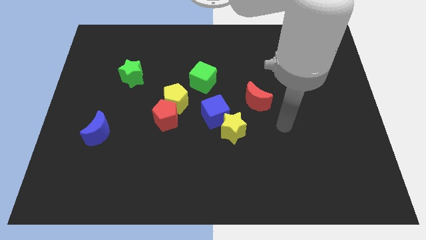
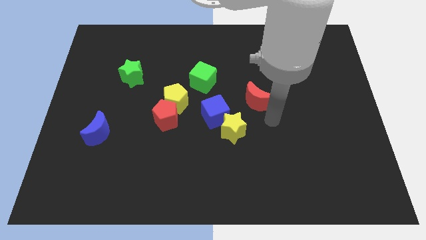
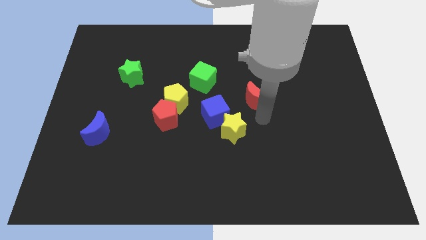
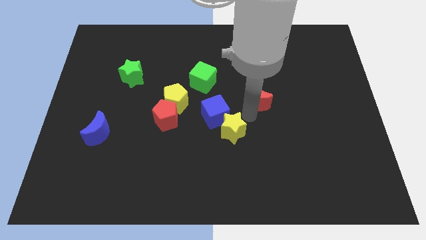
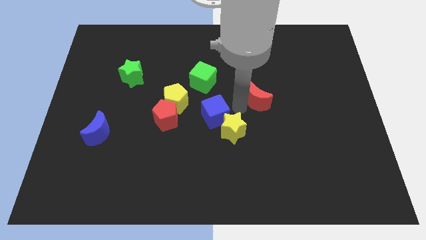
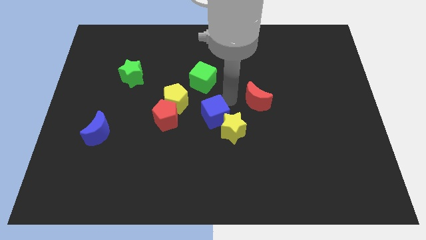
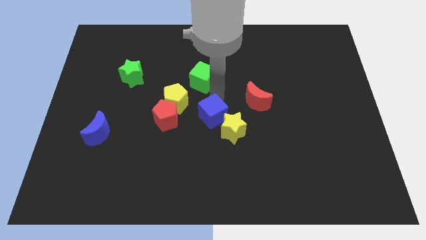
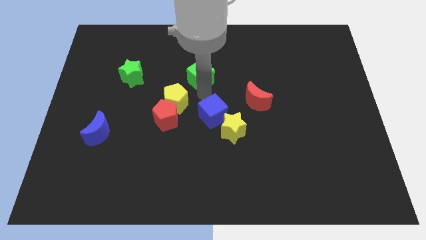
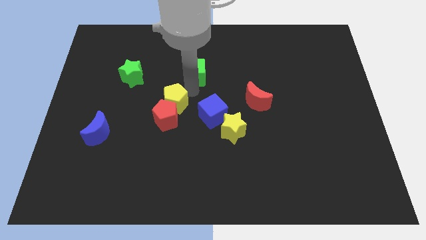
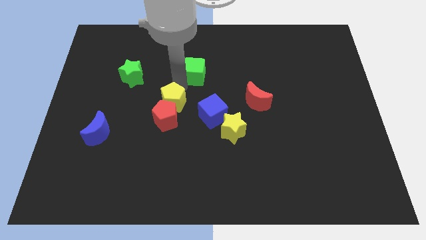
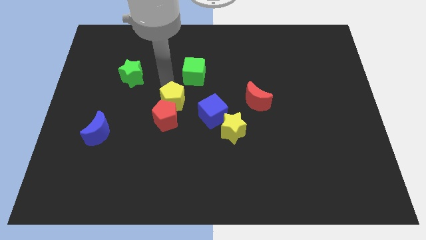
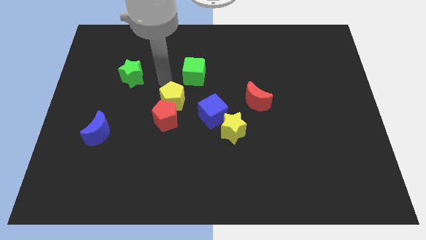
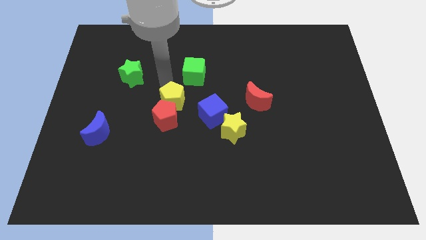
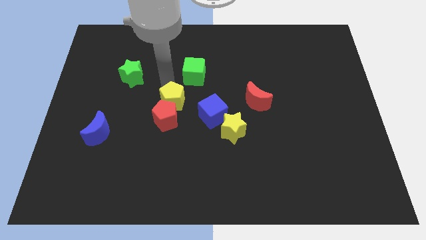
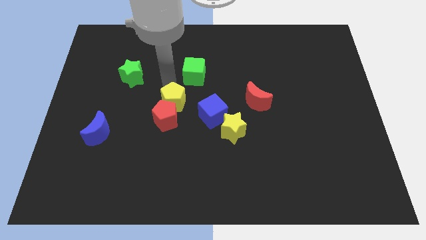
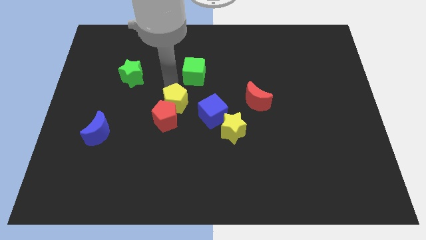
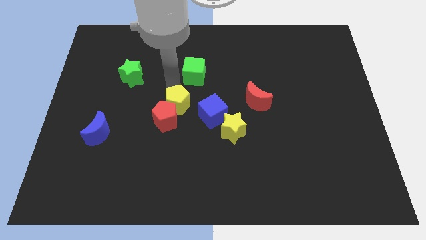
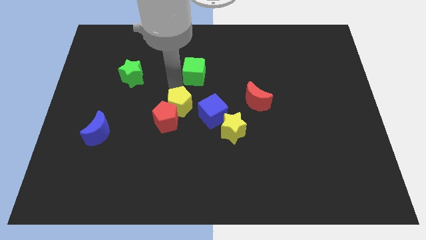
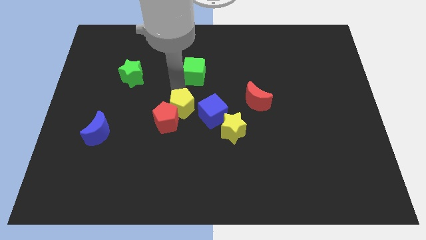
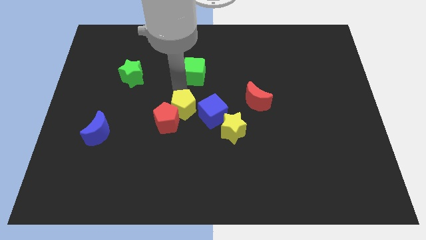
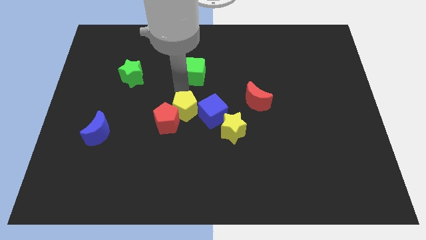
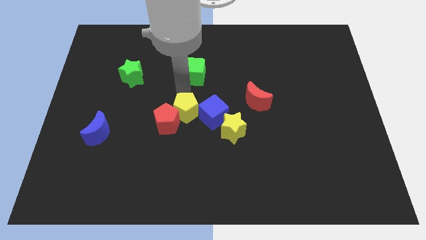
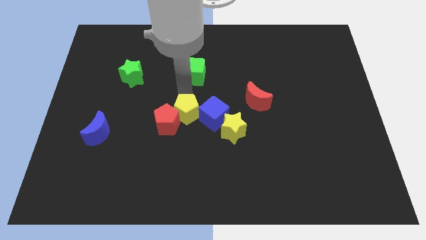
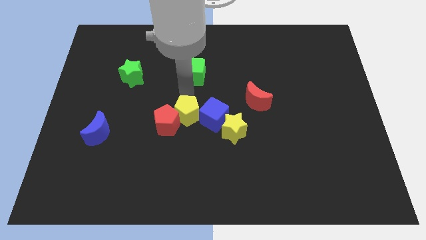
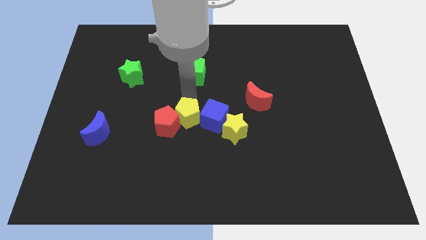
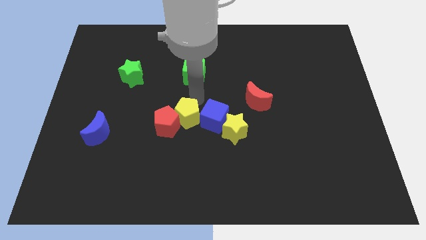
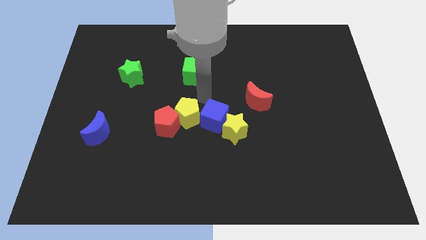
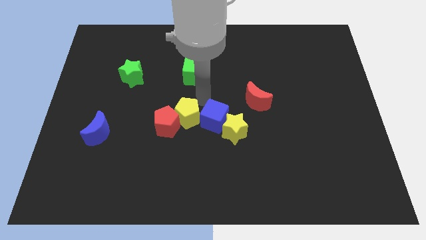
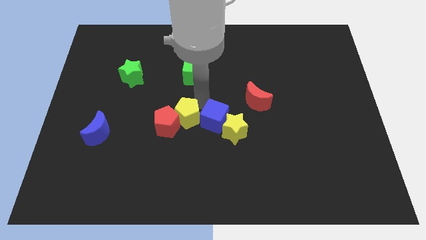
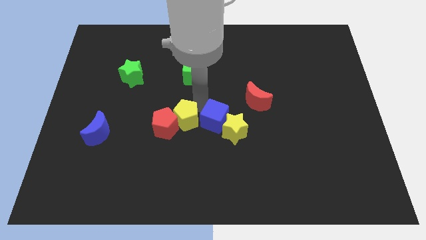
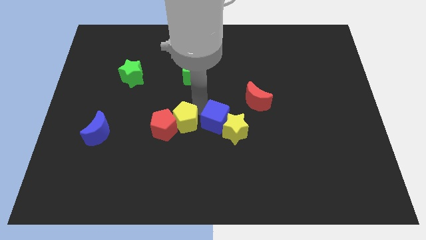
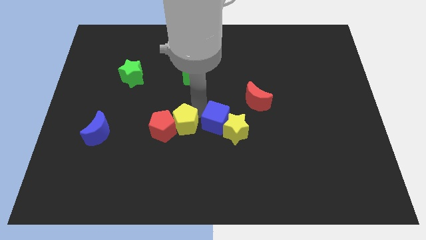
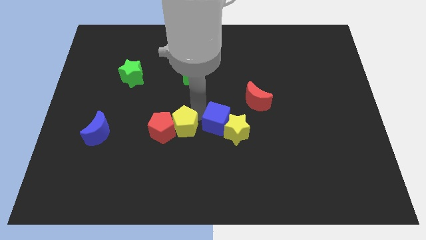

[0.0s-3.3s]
slightly push the yellow pentagon down

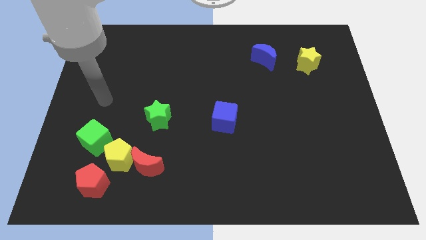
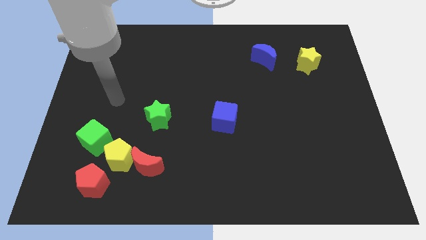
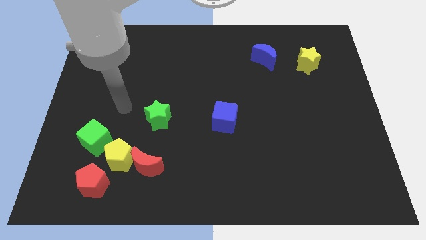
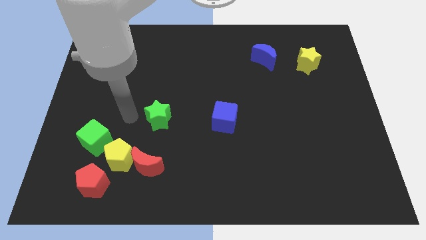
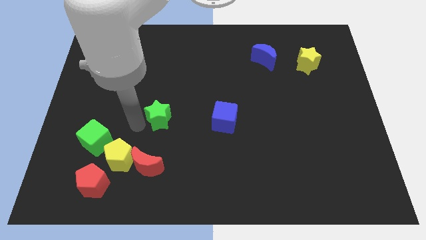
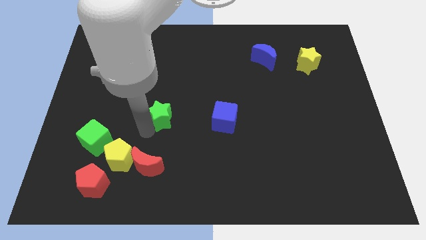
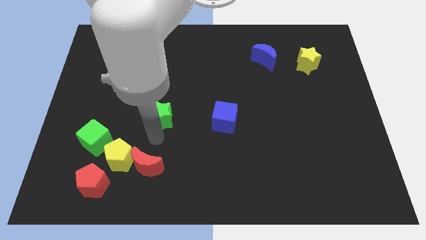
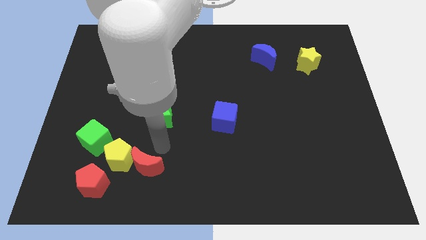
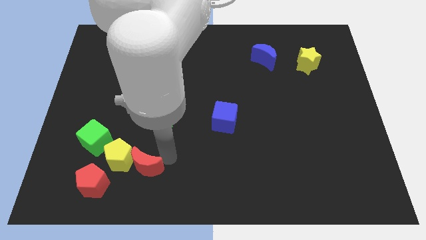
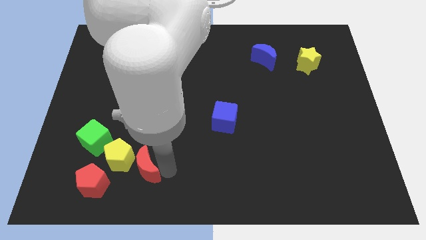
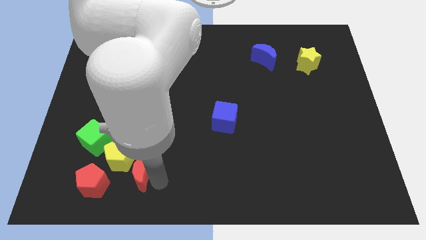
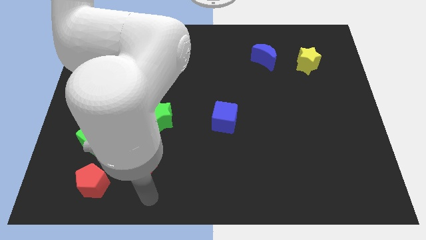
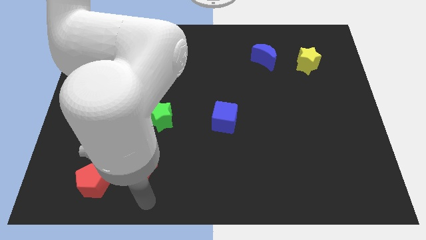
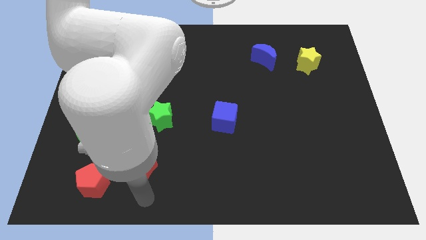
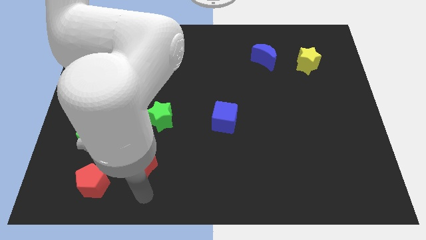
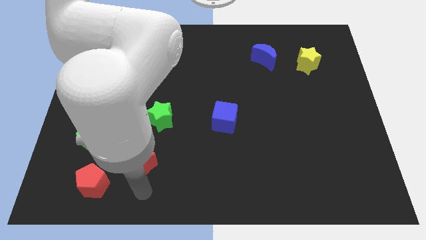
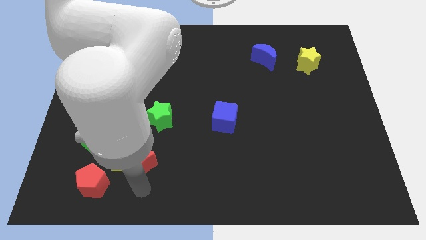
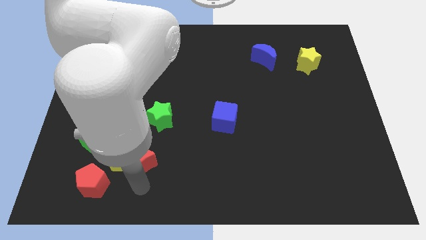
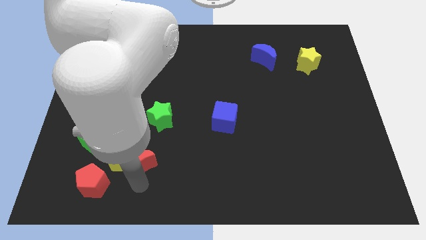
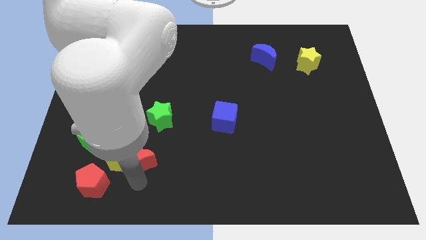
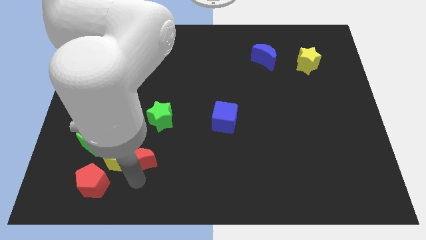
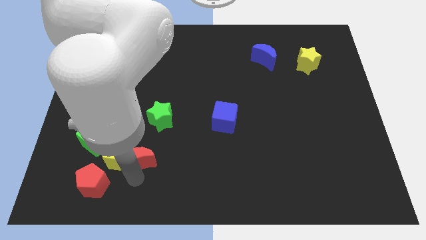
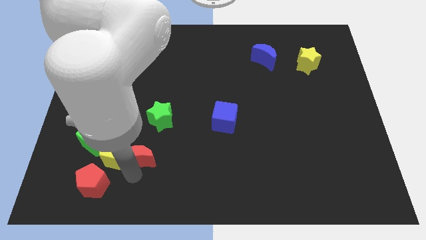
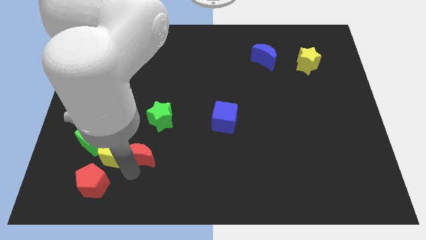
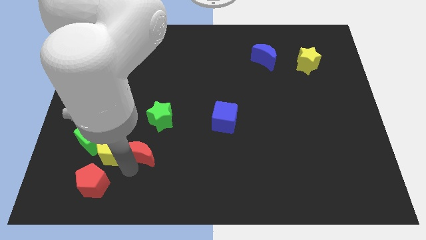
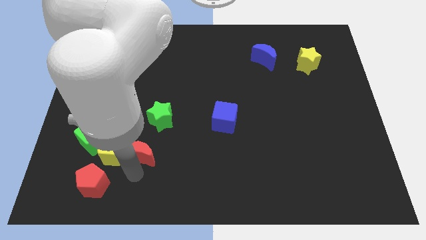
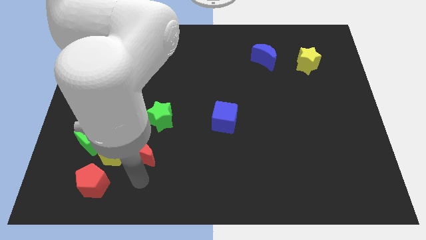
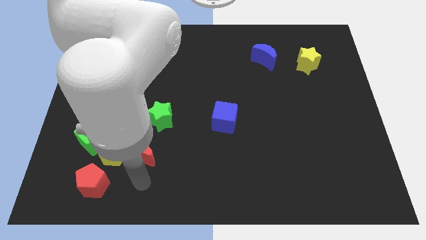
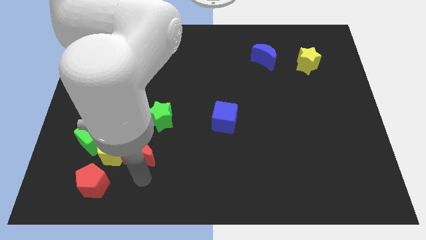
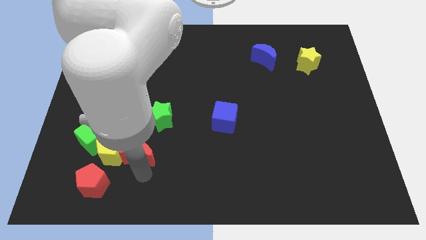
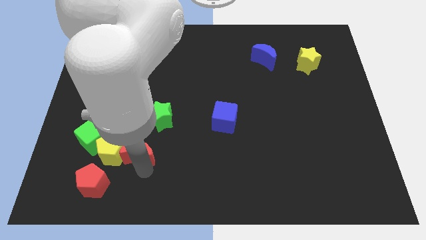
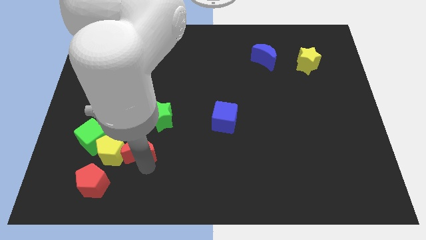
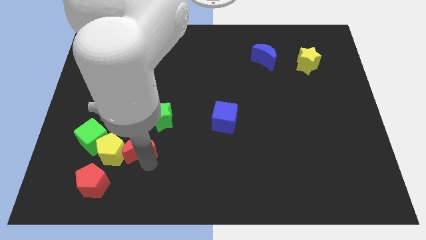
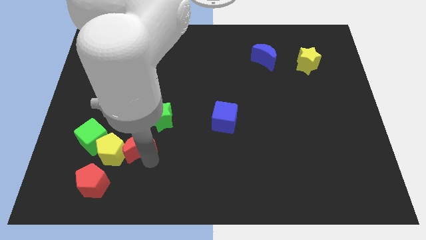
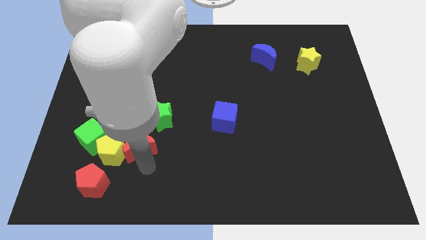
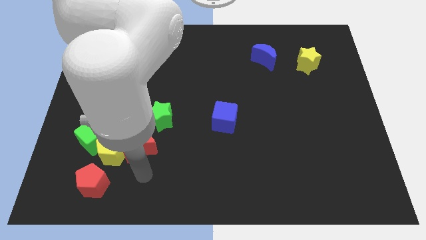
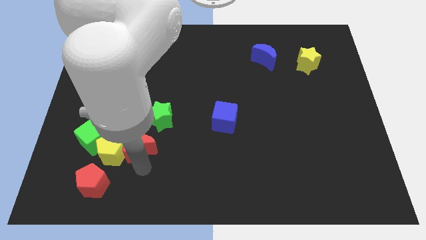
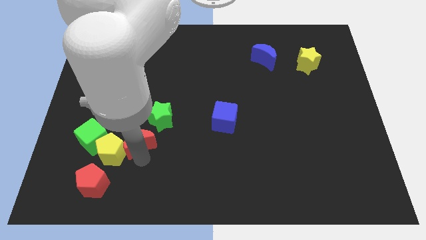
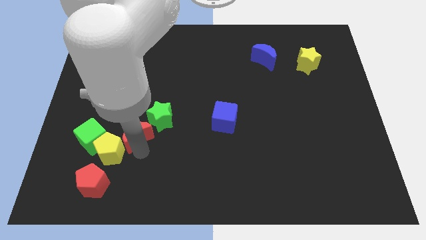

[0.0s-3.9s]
slightly move the red moon upwards
